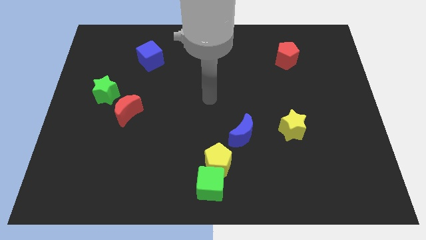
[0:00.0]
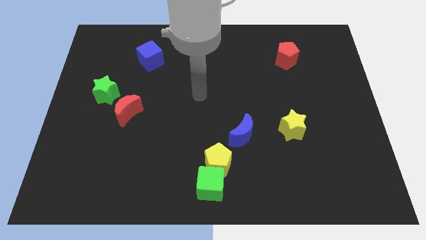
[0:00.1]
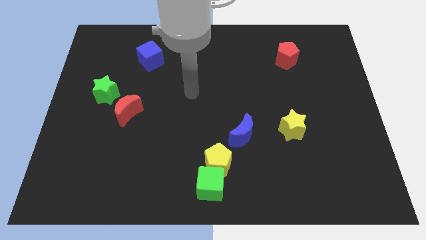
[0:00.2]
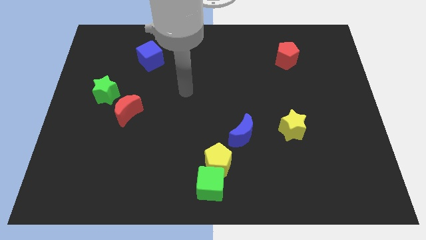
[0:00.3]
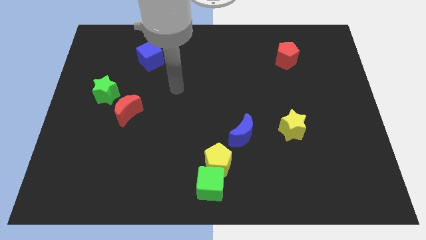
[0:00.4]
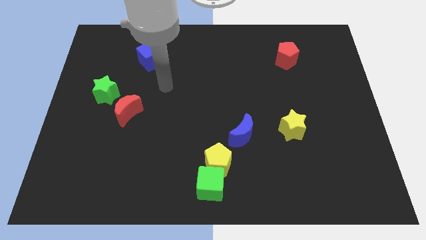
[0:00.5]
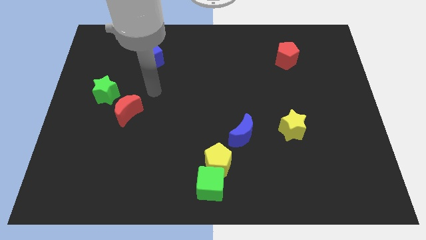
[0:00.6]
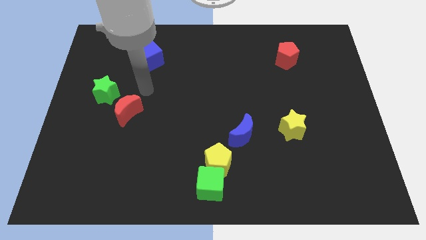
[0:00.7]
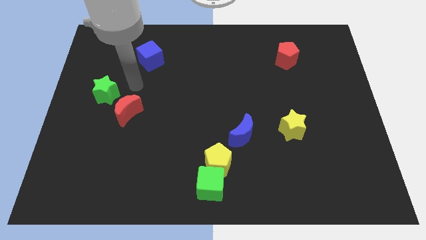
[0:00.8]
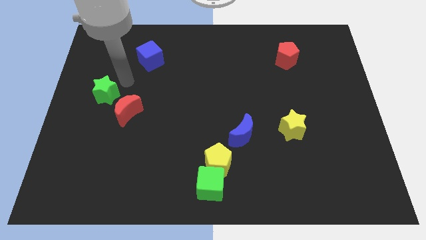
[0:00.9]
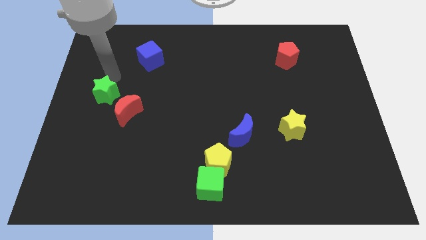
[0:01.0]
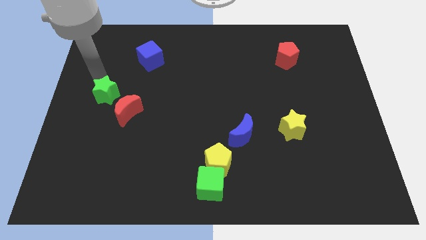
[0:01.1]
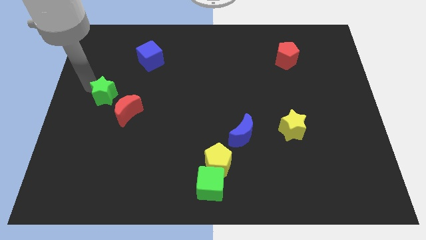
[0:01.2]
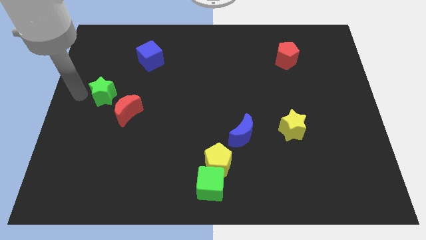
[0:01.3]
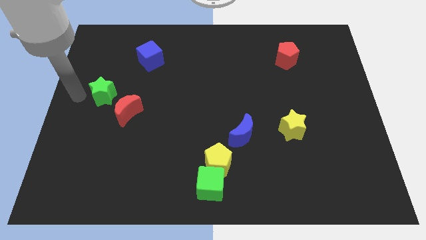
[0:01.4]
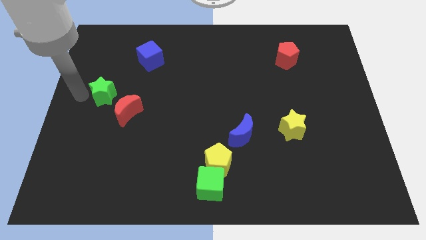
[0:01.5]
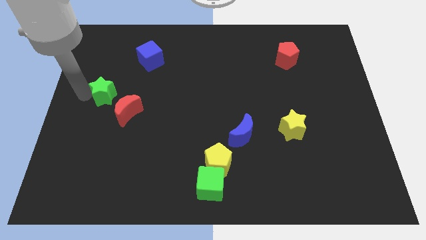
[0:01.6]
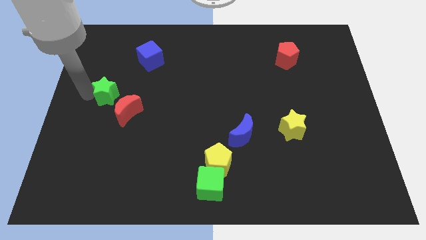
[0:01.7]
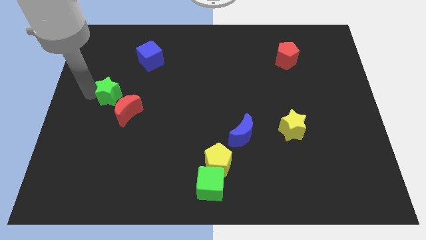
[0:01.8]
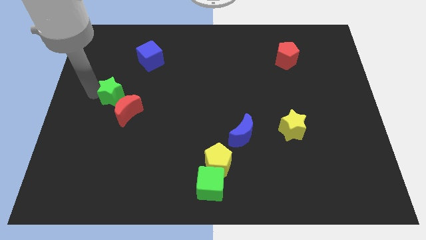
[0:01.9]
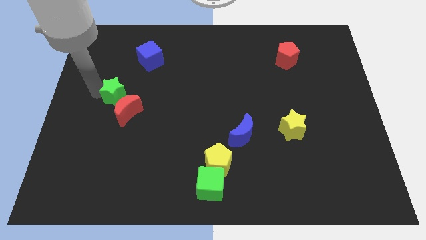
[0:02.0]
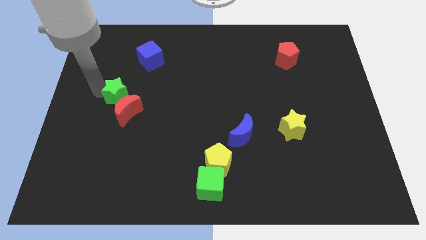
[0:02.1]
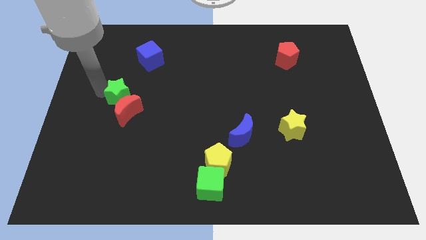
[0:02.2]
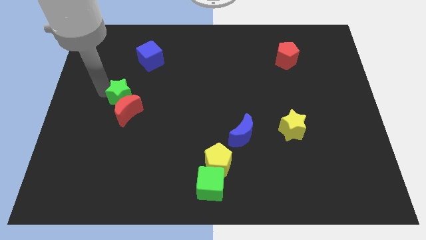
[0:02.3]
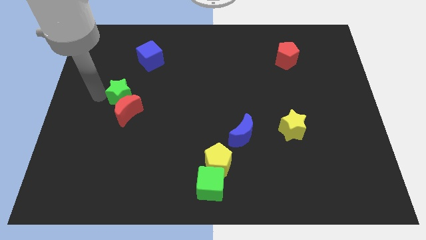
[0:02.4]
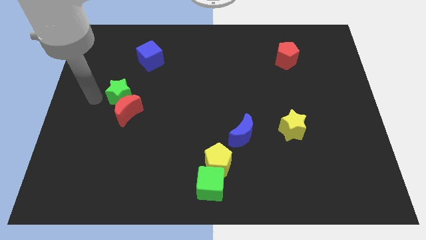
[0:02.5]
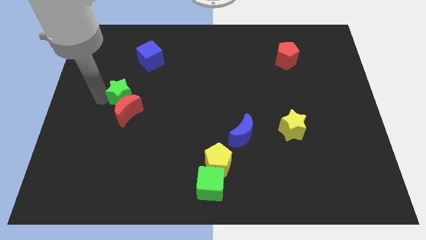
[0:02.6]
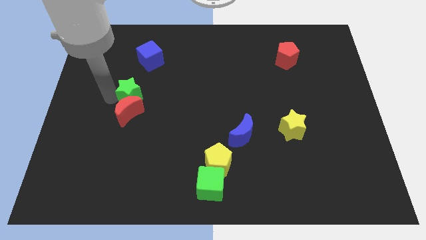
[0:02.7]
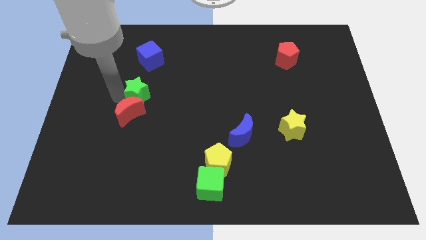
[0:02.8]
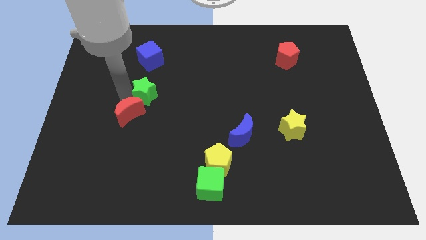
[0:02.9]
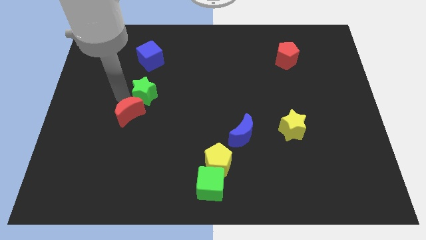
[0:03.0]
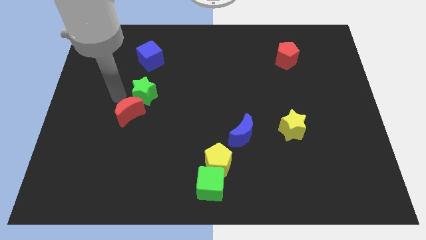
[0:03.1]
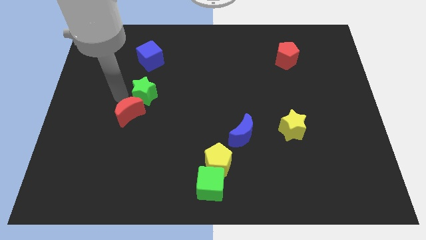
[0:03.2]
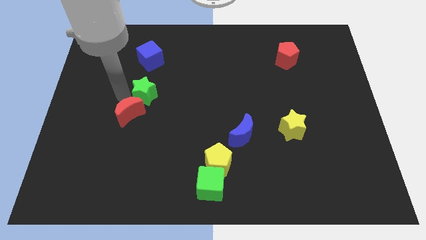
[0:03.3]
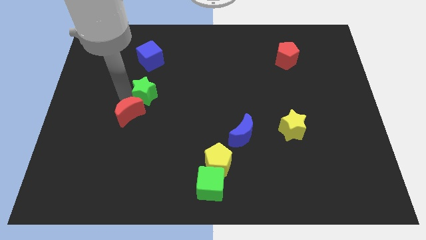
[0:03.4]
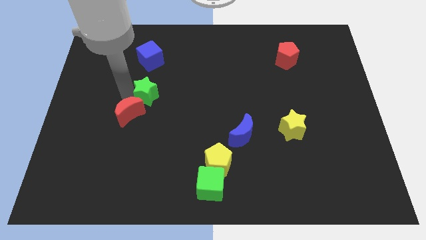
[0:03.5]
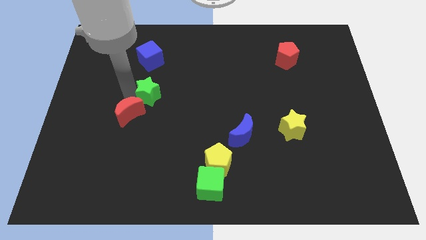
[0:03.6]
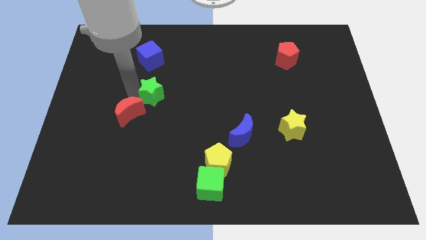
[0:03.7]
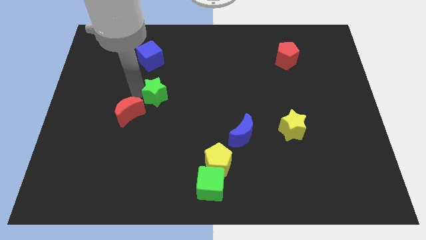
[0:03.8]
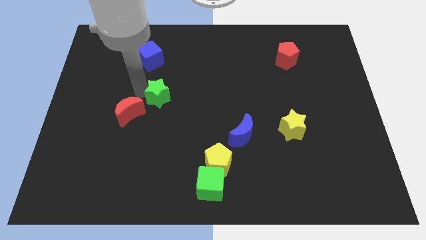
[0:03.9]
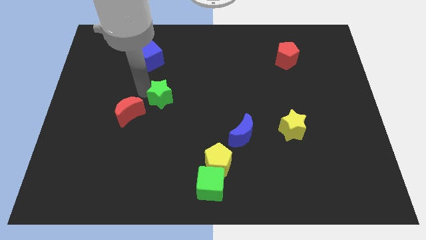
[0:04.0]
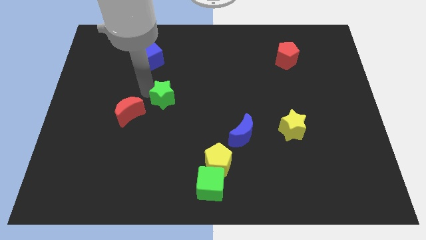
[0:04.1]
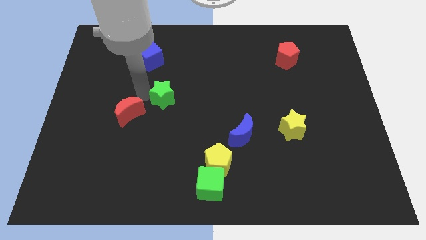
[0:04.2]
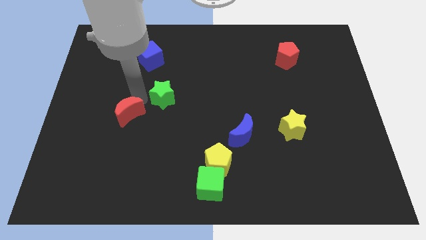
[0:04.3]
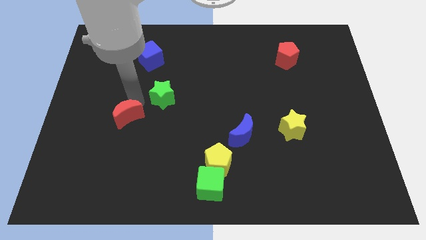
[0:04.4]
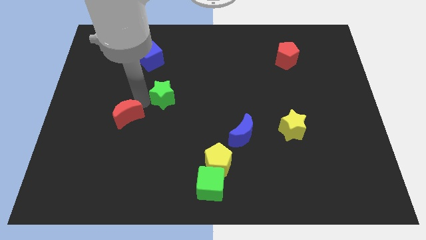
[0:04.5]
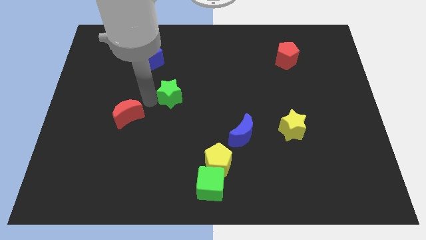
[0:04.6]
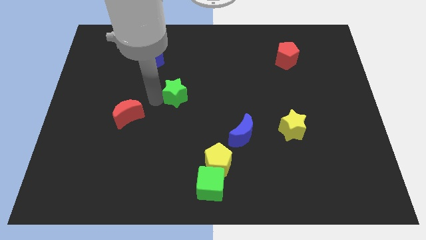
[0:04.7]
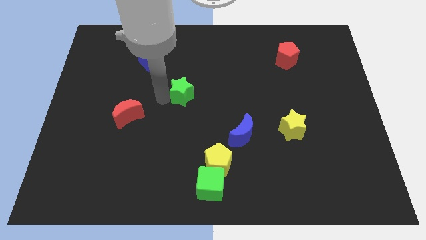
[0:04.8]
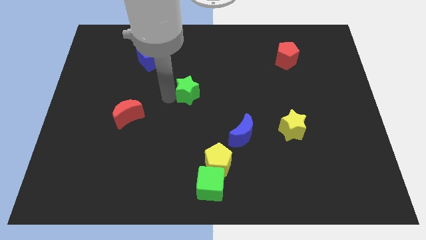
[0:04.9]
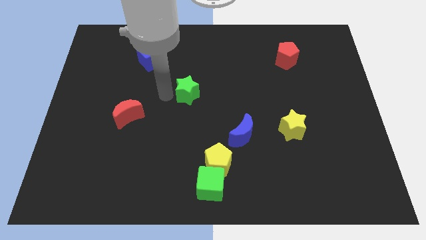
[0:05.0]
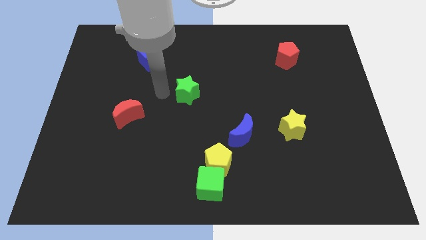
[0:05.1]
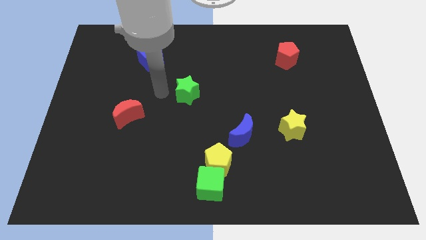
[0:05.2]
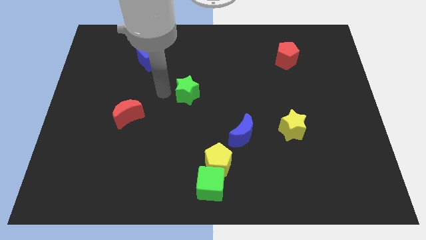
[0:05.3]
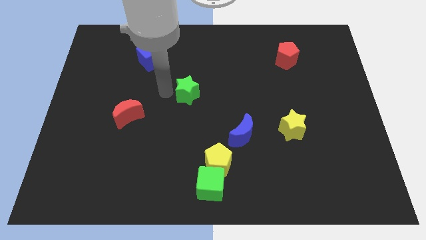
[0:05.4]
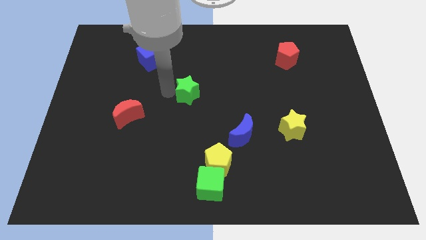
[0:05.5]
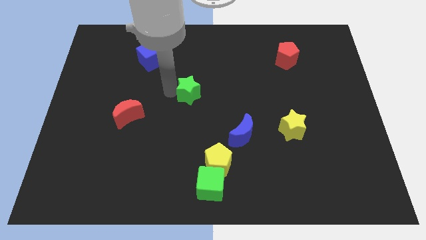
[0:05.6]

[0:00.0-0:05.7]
move the green star to the right

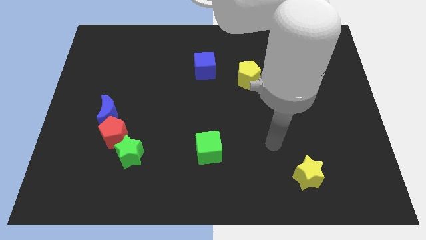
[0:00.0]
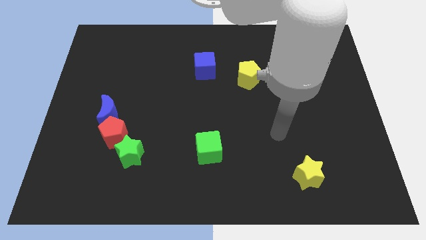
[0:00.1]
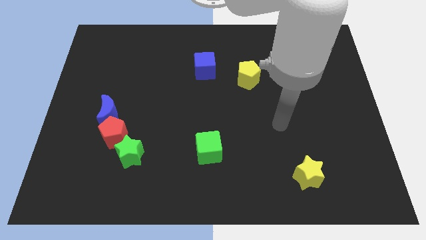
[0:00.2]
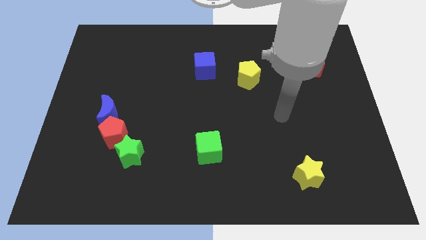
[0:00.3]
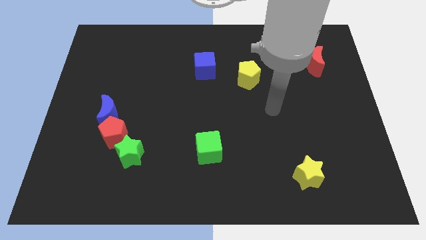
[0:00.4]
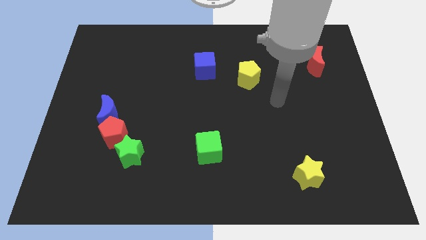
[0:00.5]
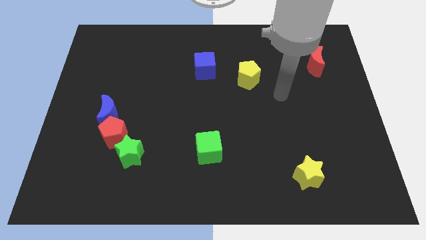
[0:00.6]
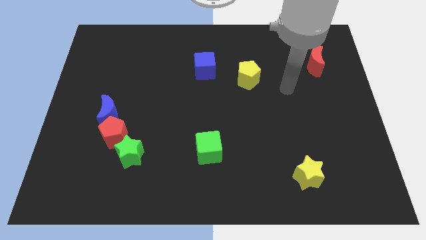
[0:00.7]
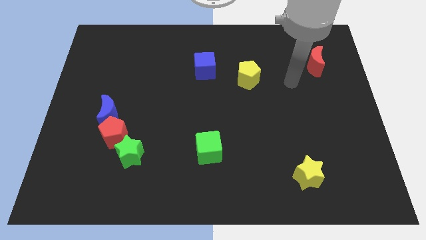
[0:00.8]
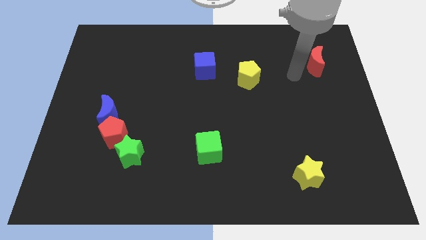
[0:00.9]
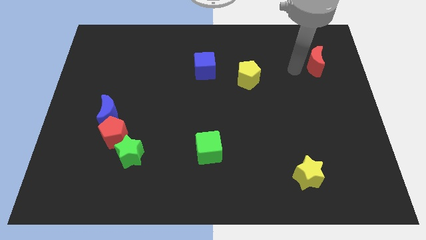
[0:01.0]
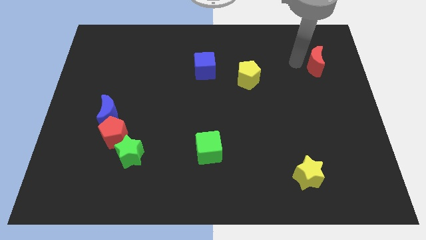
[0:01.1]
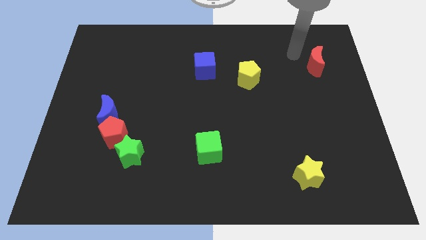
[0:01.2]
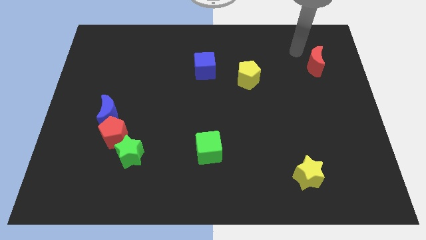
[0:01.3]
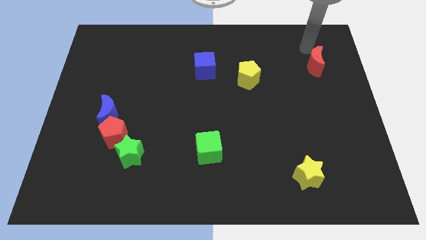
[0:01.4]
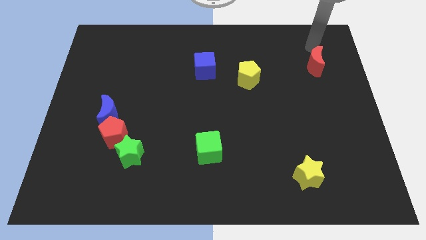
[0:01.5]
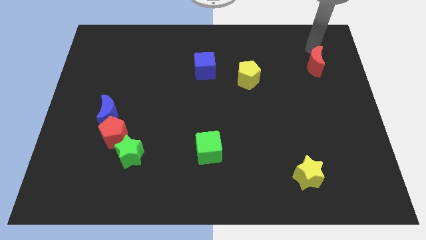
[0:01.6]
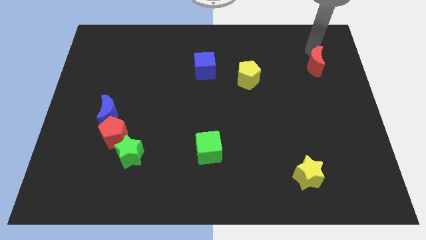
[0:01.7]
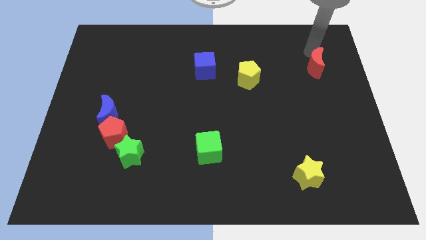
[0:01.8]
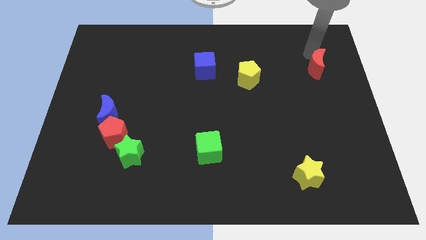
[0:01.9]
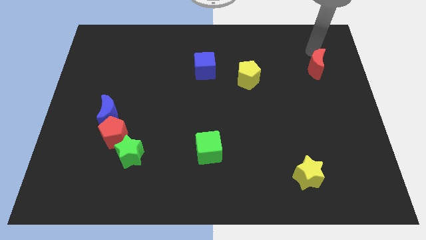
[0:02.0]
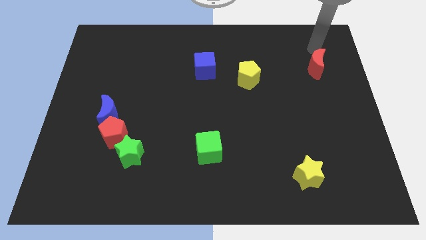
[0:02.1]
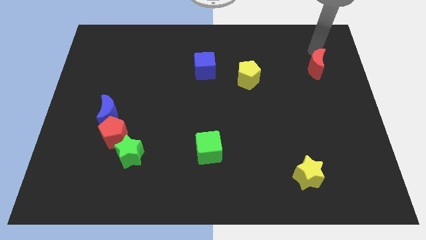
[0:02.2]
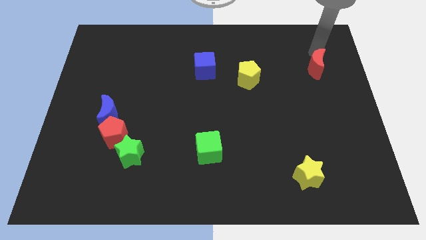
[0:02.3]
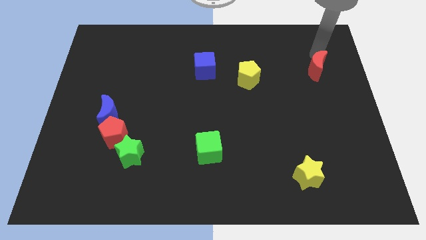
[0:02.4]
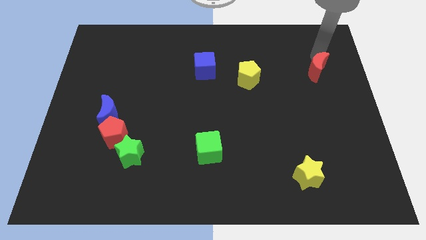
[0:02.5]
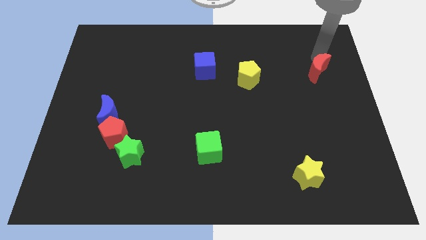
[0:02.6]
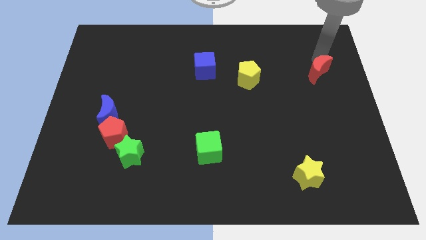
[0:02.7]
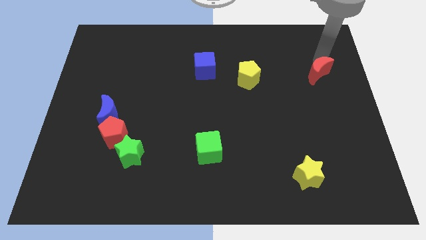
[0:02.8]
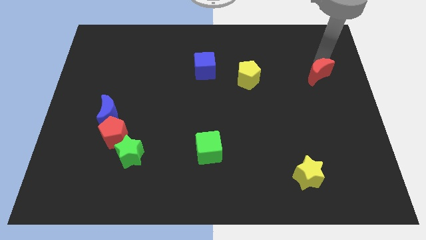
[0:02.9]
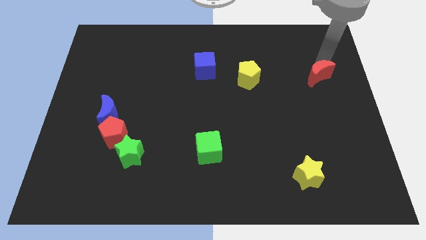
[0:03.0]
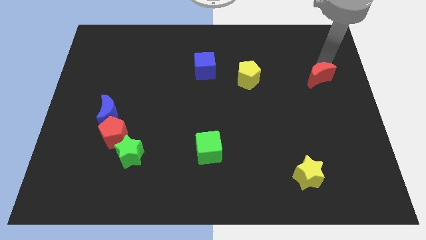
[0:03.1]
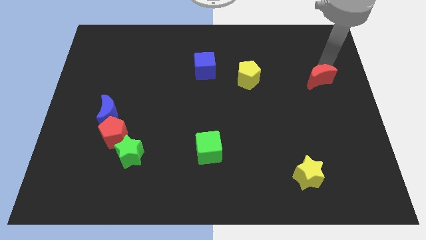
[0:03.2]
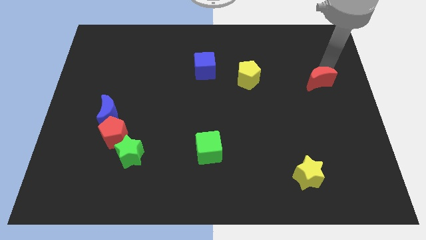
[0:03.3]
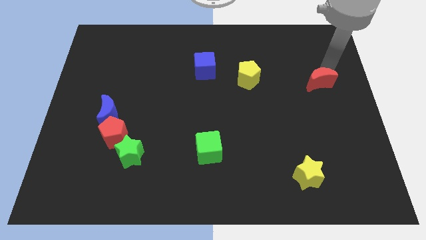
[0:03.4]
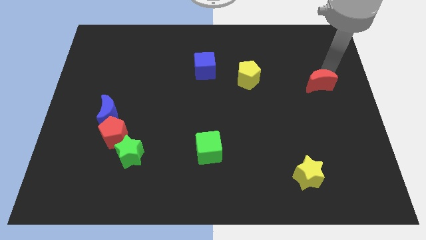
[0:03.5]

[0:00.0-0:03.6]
slightly push the red moon down
